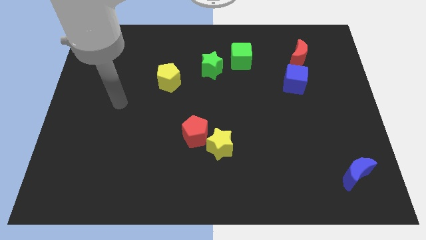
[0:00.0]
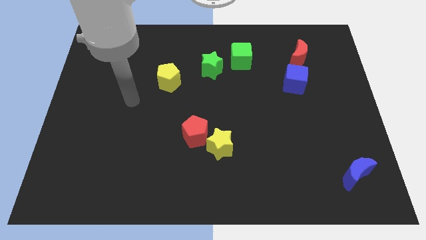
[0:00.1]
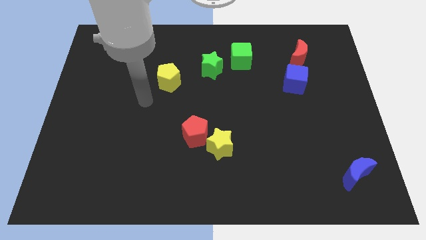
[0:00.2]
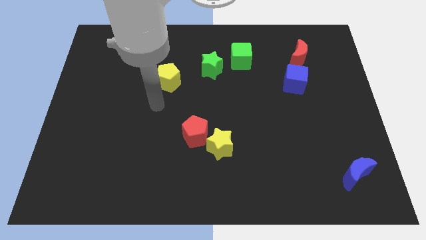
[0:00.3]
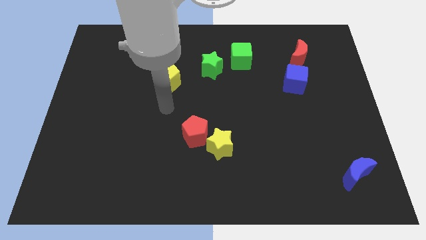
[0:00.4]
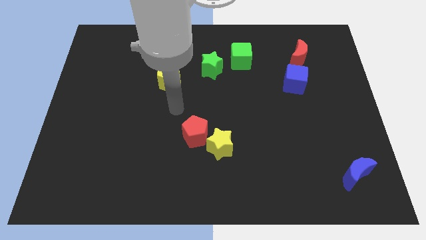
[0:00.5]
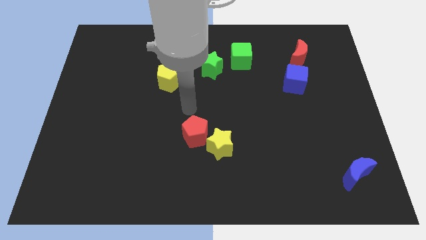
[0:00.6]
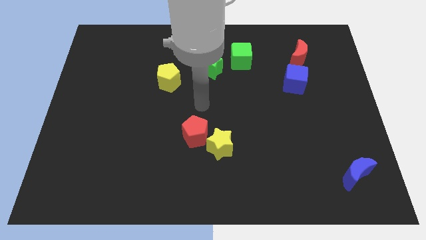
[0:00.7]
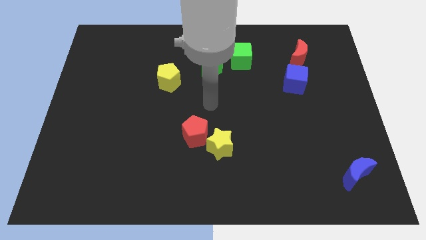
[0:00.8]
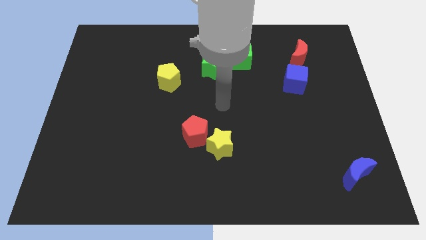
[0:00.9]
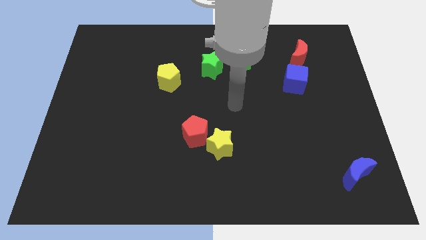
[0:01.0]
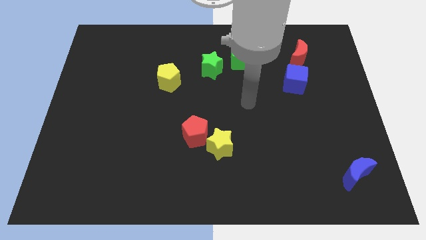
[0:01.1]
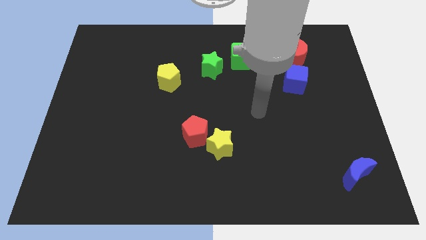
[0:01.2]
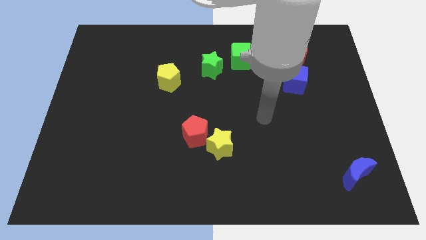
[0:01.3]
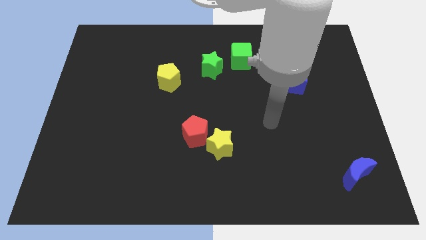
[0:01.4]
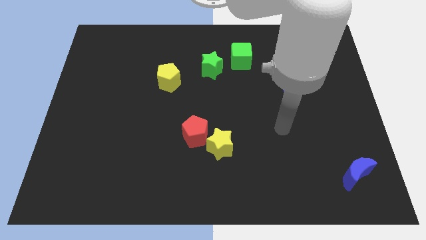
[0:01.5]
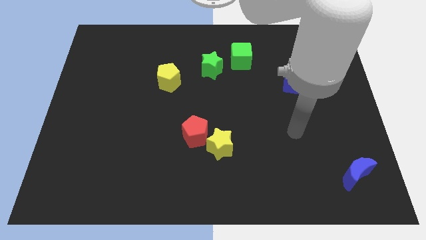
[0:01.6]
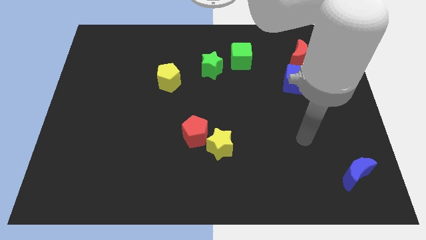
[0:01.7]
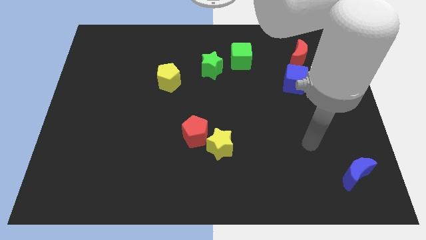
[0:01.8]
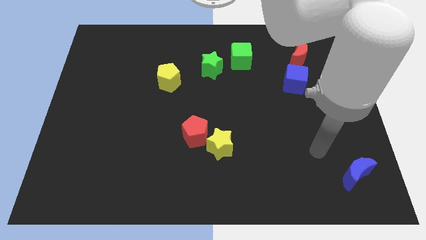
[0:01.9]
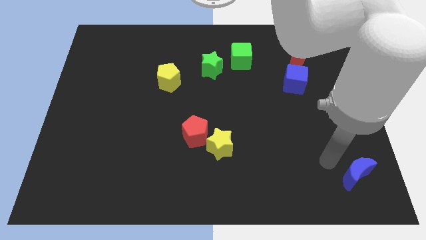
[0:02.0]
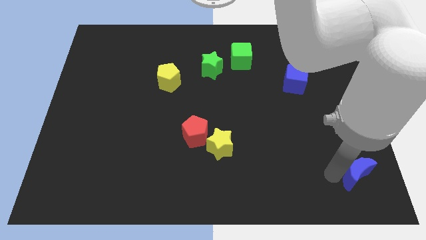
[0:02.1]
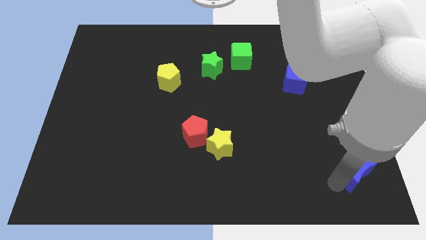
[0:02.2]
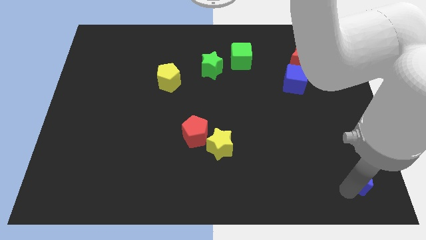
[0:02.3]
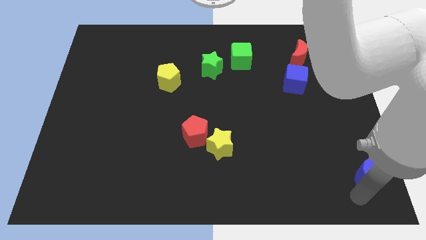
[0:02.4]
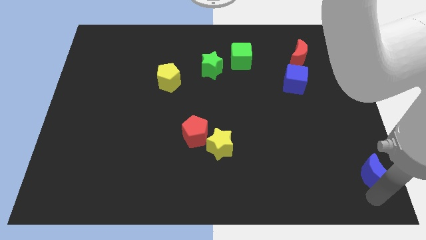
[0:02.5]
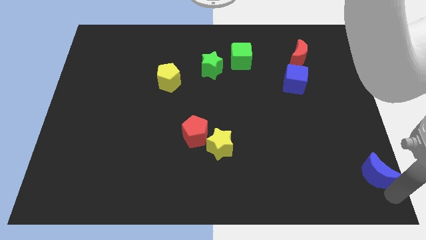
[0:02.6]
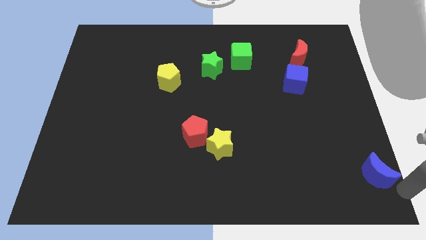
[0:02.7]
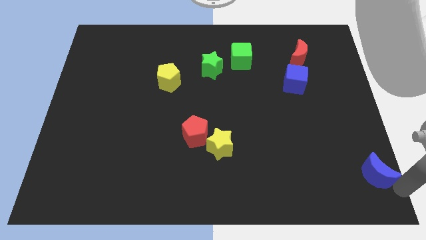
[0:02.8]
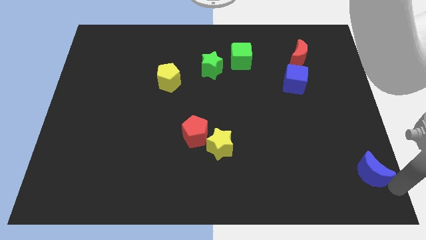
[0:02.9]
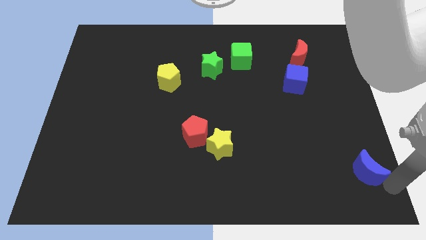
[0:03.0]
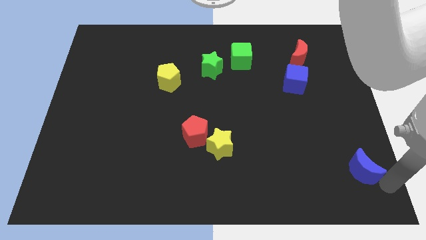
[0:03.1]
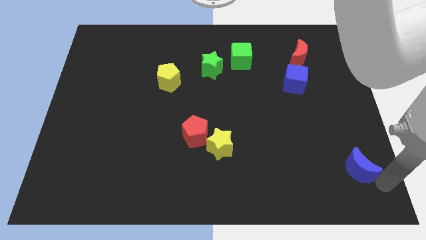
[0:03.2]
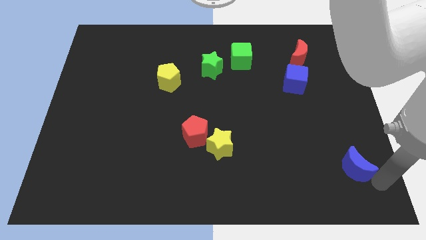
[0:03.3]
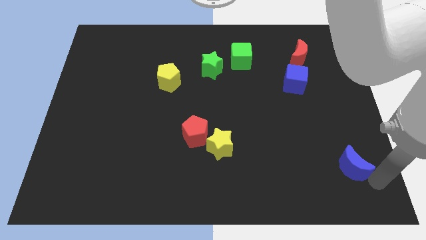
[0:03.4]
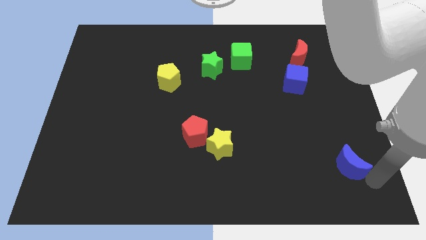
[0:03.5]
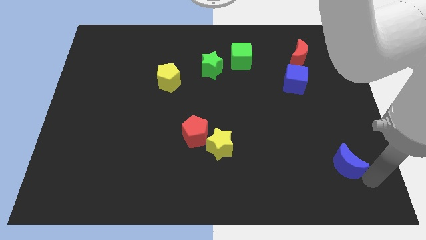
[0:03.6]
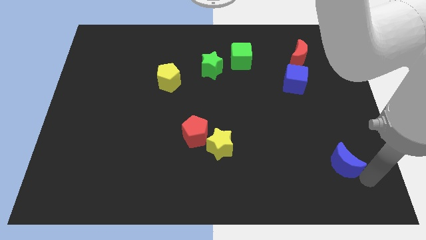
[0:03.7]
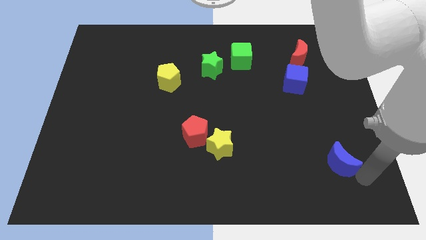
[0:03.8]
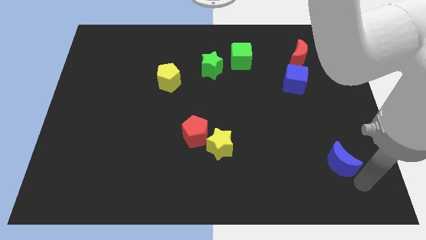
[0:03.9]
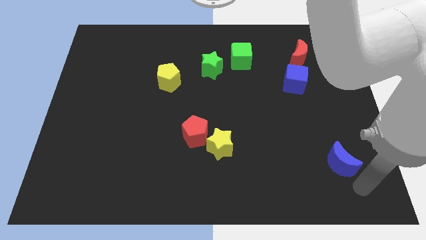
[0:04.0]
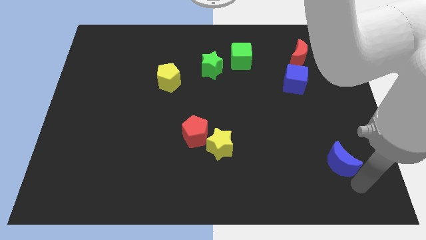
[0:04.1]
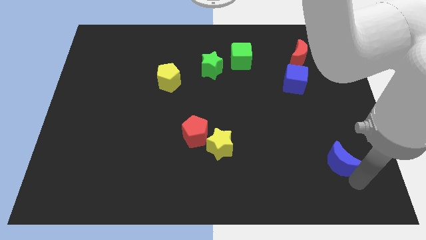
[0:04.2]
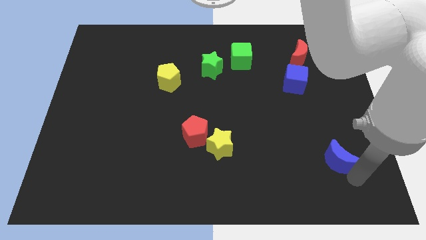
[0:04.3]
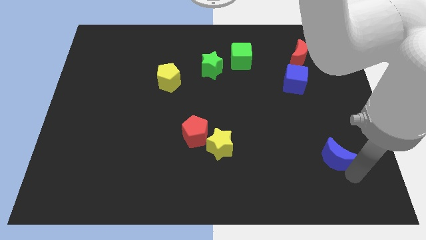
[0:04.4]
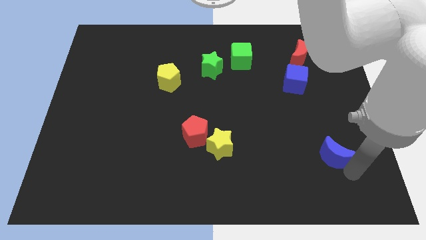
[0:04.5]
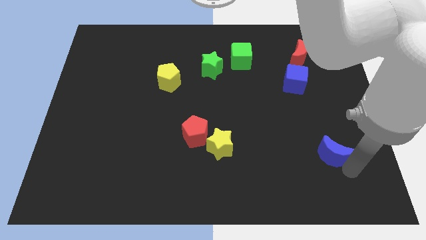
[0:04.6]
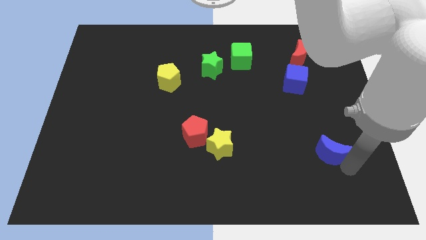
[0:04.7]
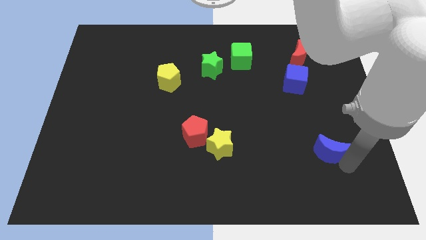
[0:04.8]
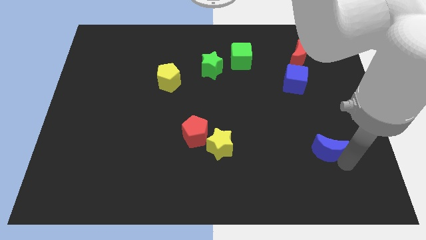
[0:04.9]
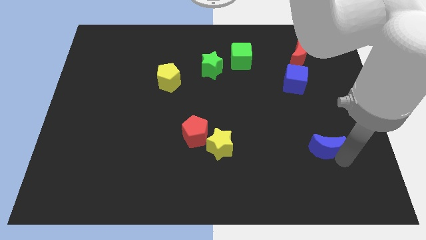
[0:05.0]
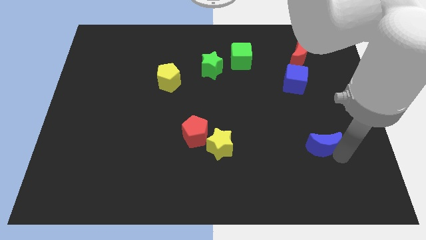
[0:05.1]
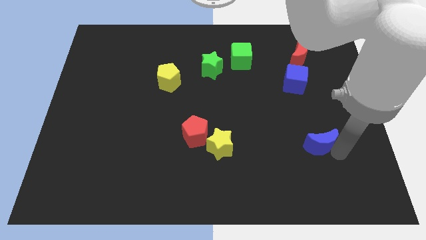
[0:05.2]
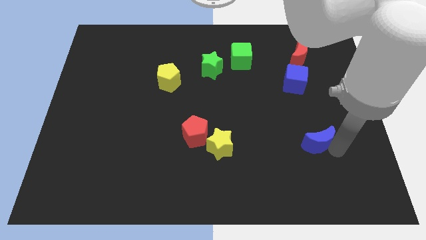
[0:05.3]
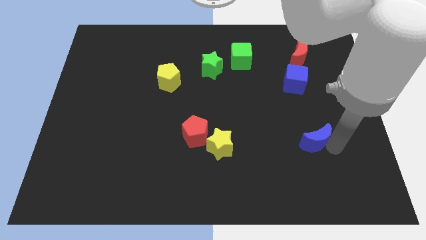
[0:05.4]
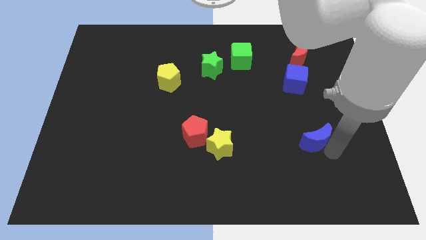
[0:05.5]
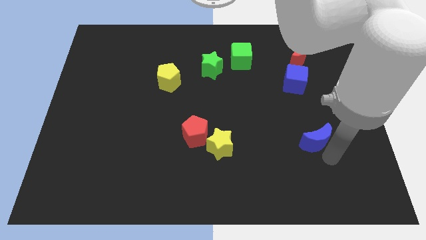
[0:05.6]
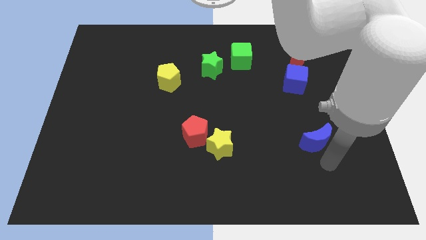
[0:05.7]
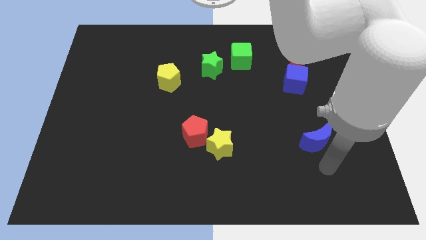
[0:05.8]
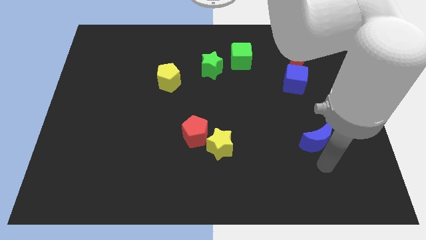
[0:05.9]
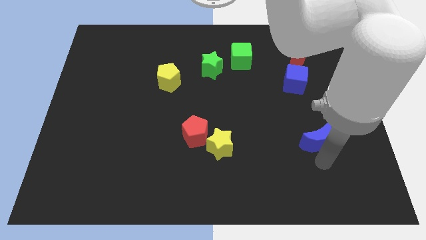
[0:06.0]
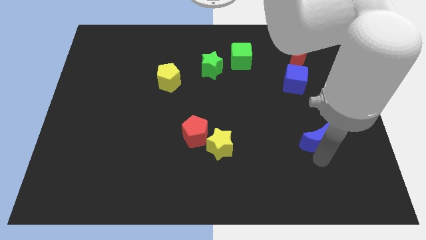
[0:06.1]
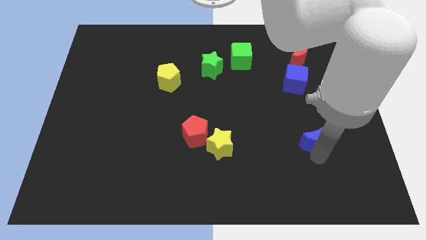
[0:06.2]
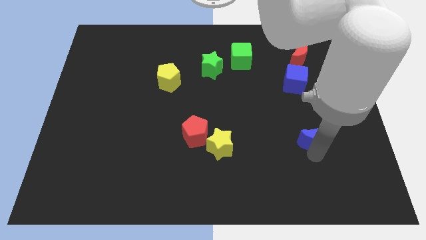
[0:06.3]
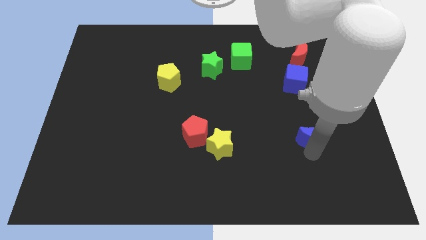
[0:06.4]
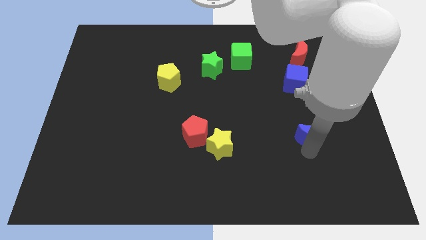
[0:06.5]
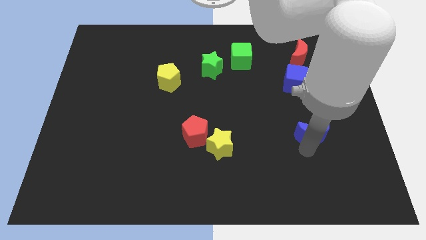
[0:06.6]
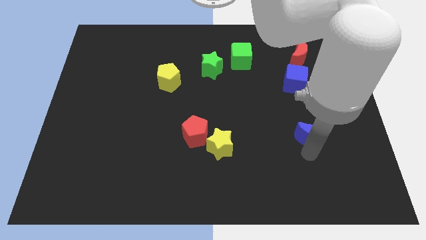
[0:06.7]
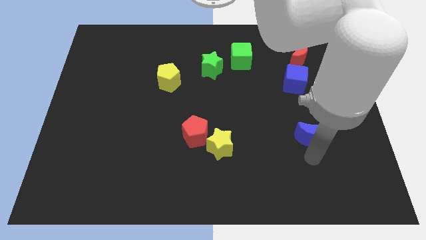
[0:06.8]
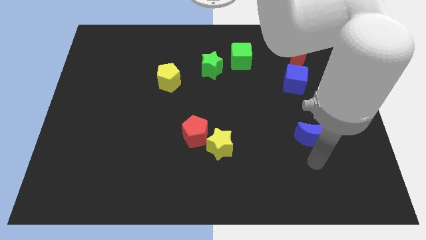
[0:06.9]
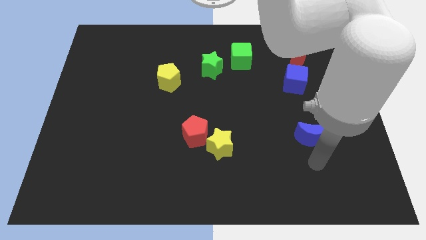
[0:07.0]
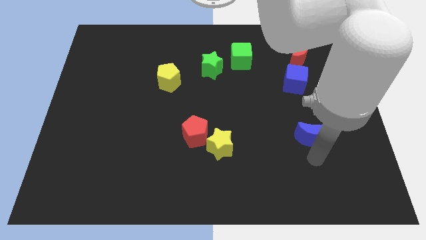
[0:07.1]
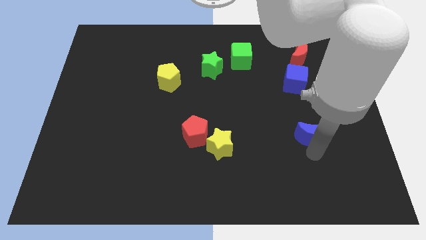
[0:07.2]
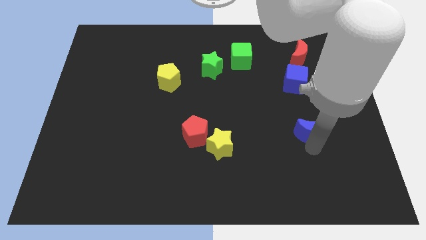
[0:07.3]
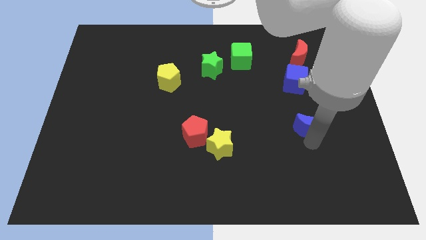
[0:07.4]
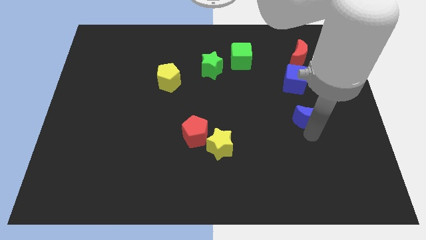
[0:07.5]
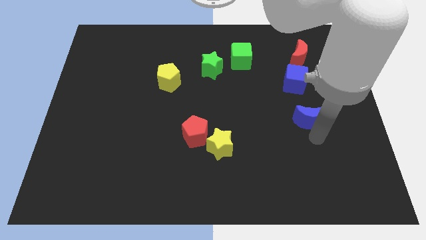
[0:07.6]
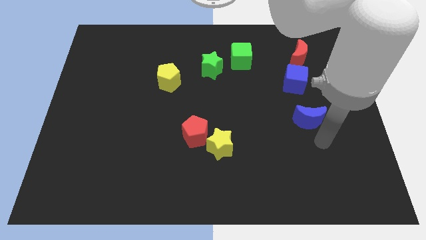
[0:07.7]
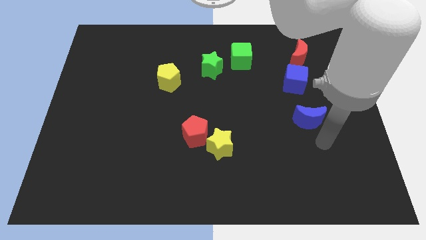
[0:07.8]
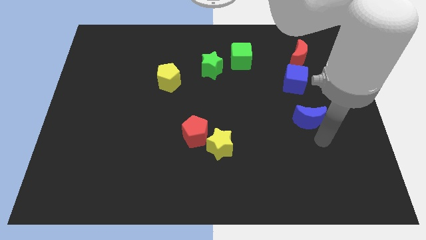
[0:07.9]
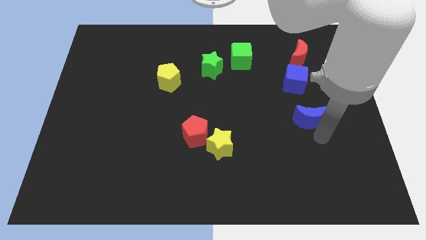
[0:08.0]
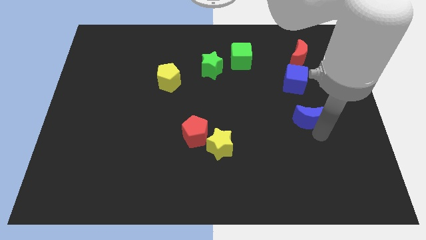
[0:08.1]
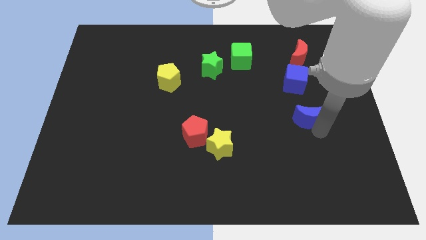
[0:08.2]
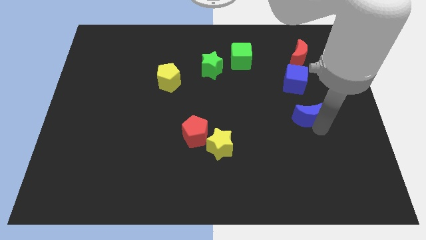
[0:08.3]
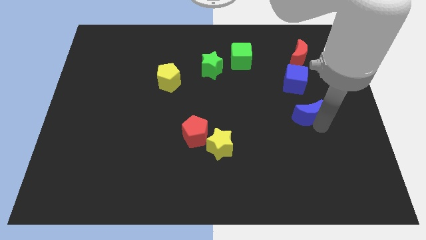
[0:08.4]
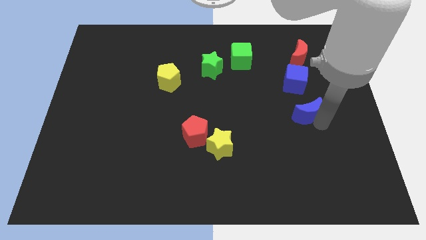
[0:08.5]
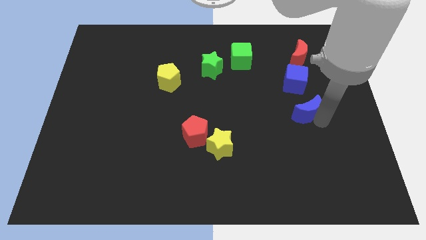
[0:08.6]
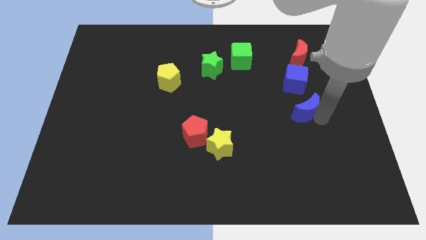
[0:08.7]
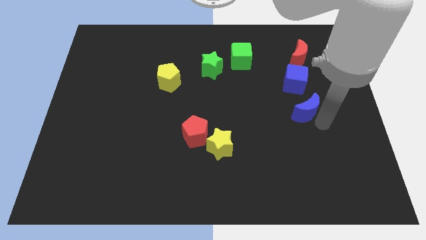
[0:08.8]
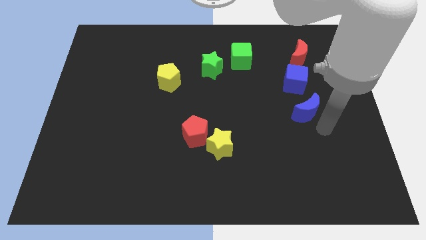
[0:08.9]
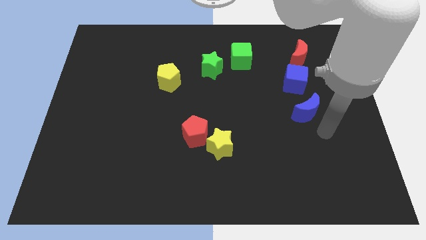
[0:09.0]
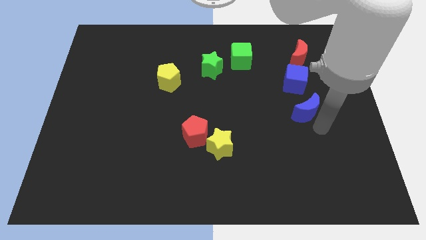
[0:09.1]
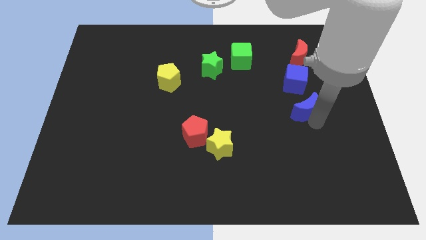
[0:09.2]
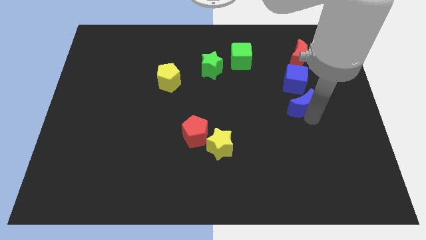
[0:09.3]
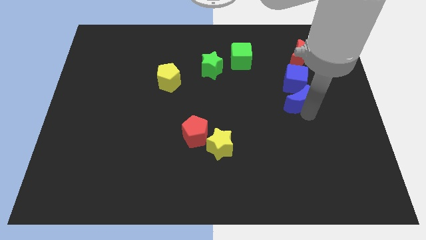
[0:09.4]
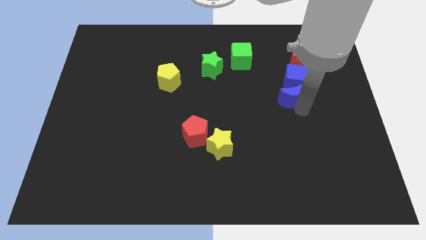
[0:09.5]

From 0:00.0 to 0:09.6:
move the blue moon towards the blue cube
